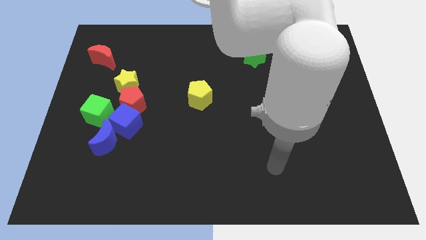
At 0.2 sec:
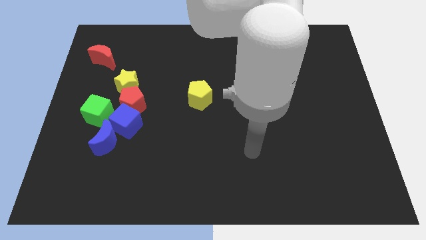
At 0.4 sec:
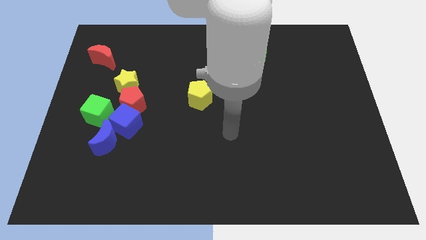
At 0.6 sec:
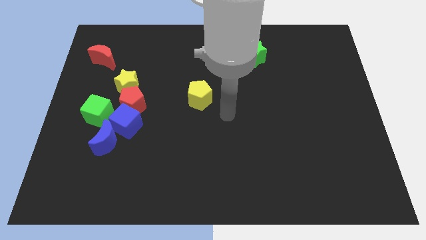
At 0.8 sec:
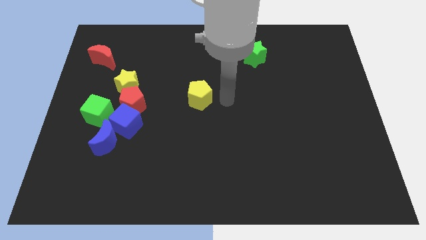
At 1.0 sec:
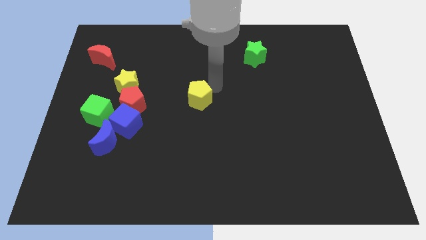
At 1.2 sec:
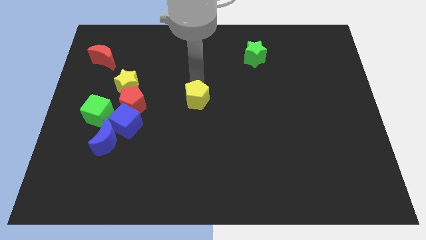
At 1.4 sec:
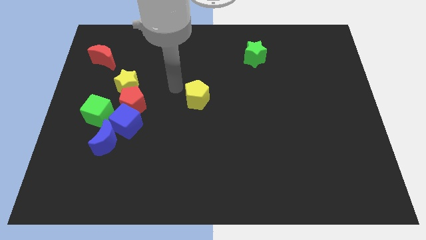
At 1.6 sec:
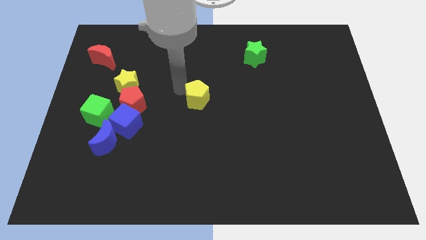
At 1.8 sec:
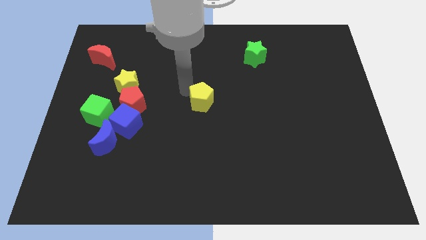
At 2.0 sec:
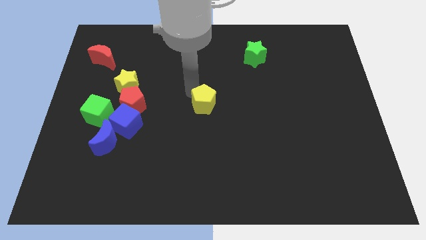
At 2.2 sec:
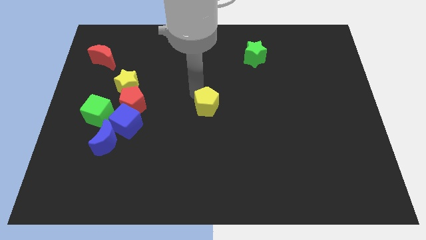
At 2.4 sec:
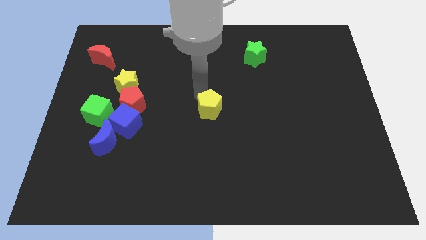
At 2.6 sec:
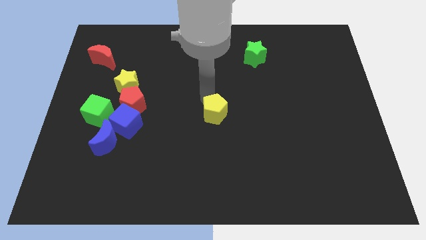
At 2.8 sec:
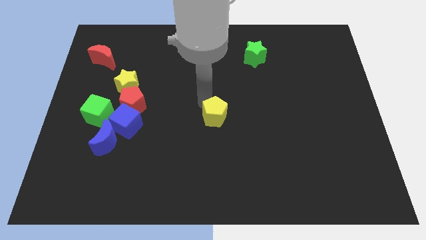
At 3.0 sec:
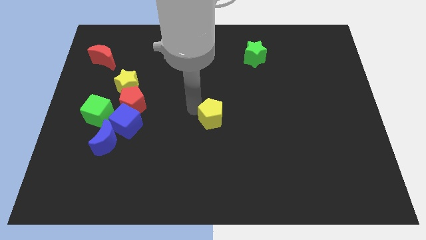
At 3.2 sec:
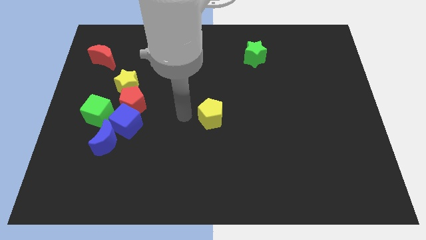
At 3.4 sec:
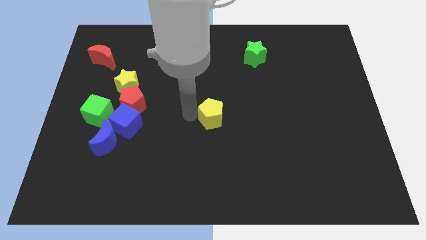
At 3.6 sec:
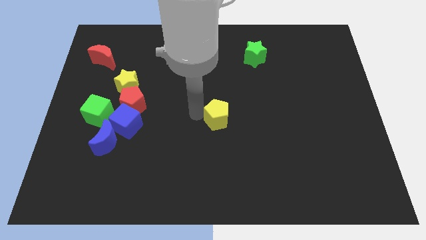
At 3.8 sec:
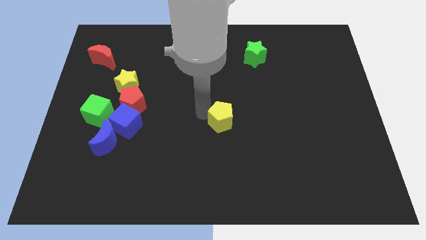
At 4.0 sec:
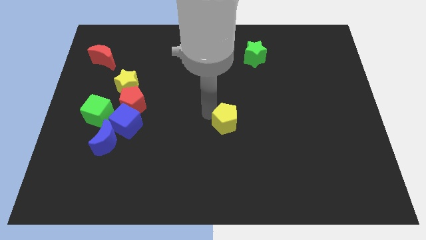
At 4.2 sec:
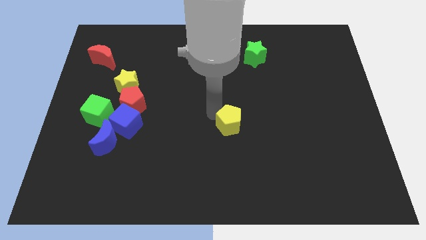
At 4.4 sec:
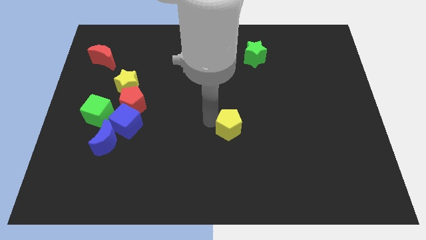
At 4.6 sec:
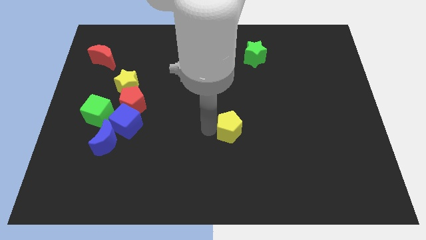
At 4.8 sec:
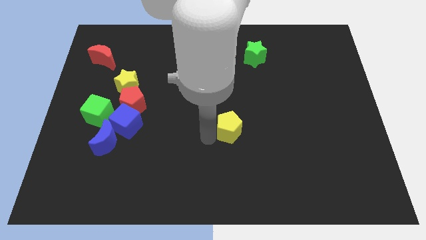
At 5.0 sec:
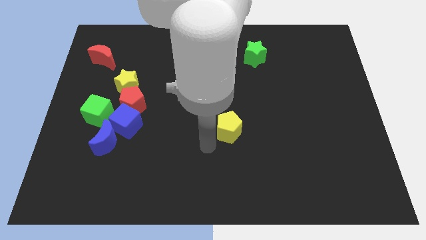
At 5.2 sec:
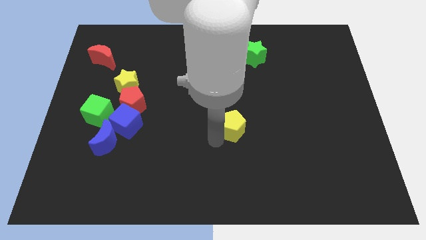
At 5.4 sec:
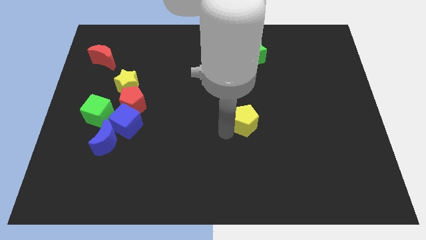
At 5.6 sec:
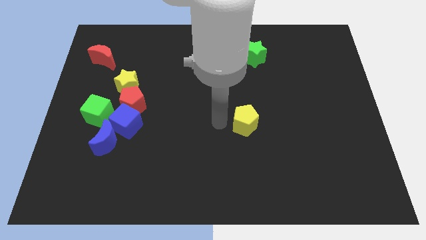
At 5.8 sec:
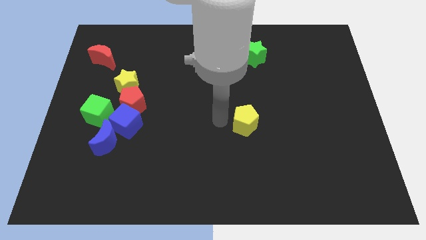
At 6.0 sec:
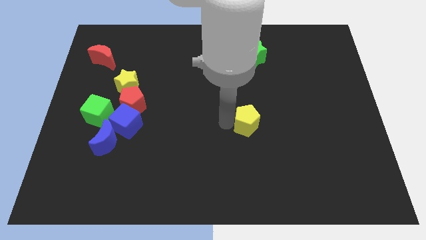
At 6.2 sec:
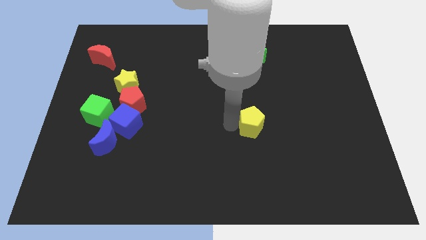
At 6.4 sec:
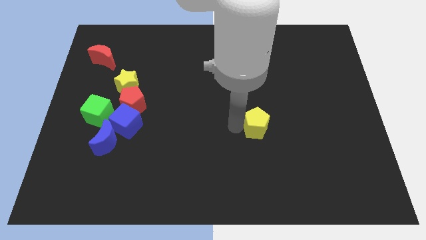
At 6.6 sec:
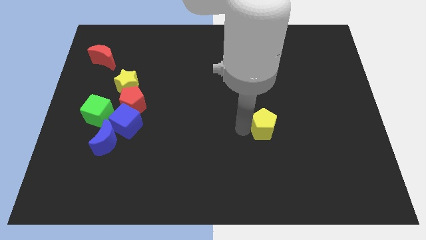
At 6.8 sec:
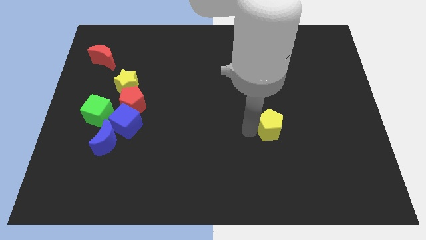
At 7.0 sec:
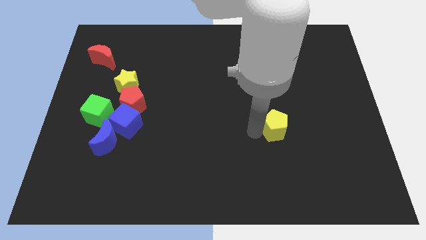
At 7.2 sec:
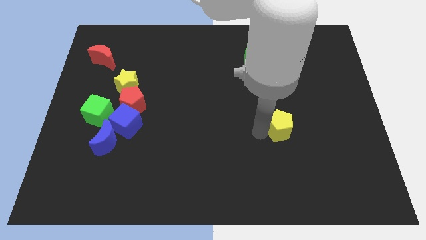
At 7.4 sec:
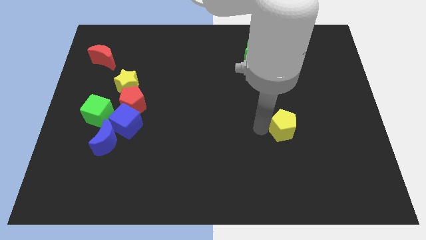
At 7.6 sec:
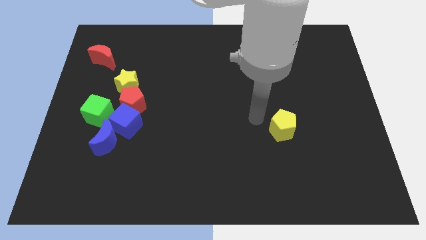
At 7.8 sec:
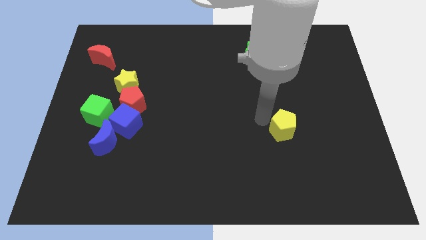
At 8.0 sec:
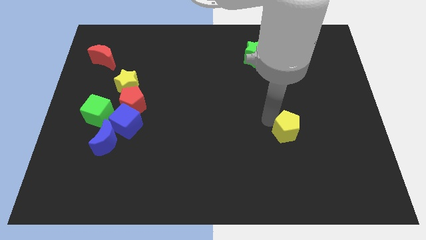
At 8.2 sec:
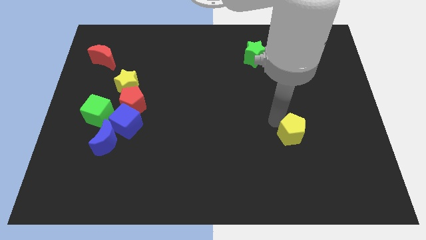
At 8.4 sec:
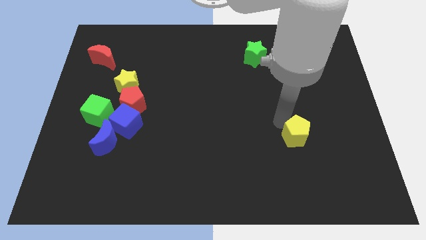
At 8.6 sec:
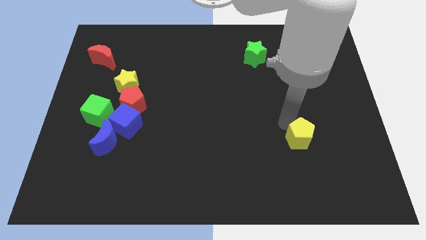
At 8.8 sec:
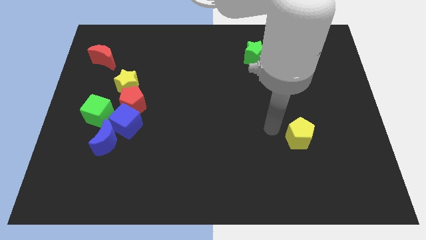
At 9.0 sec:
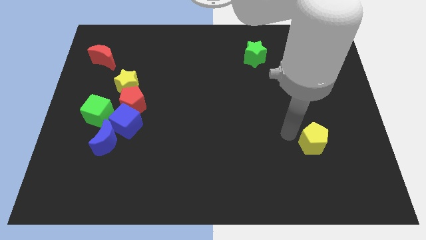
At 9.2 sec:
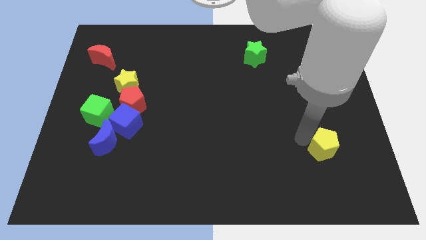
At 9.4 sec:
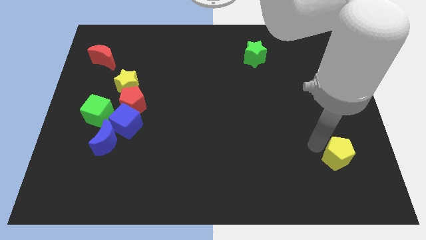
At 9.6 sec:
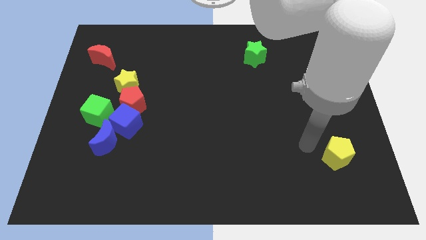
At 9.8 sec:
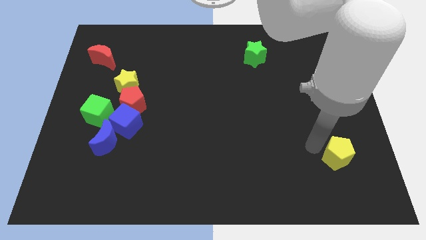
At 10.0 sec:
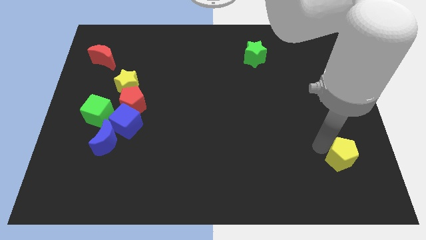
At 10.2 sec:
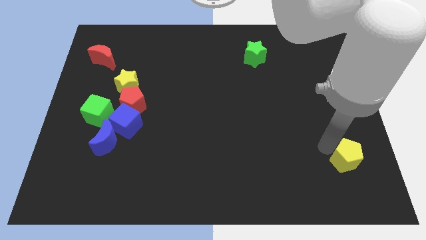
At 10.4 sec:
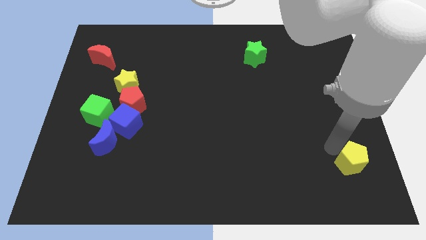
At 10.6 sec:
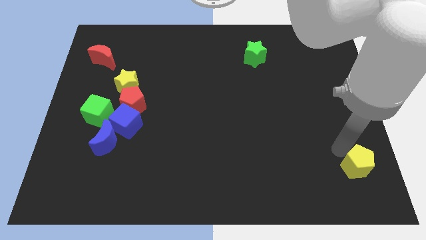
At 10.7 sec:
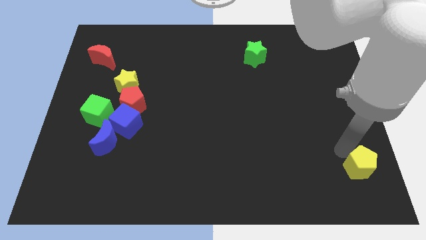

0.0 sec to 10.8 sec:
push the yellow pentagon to the bottom right corner

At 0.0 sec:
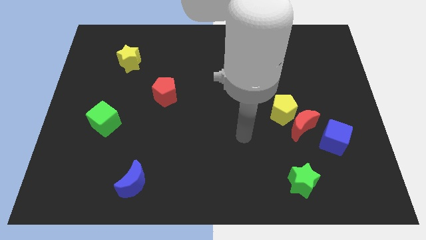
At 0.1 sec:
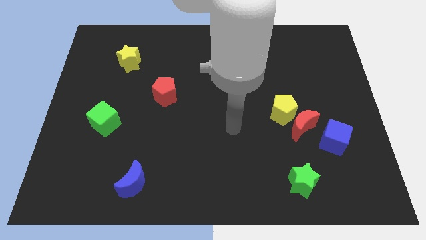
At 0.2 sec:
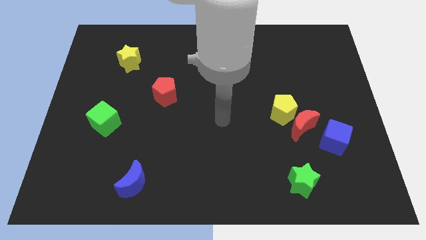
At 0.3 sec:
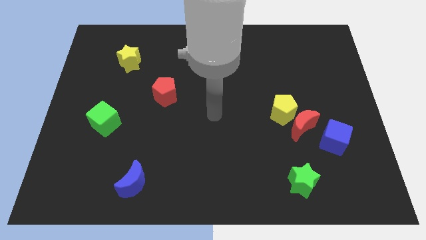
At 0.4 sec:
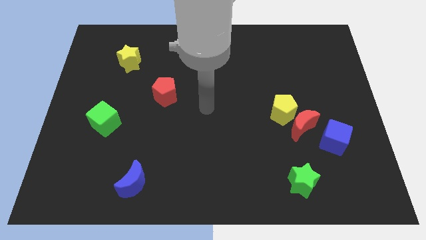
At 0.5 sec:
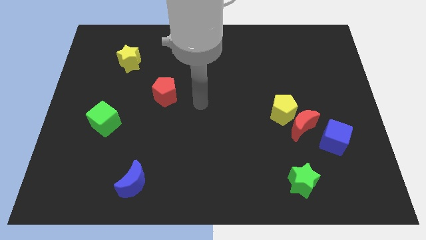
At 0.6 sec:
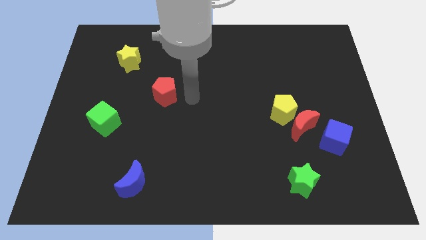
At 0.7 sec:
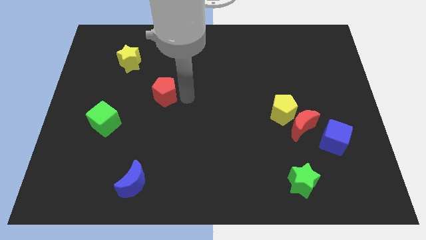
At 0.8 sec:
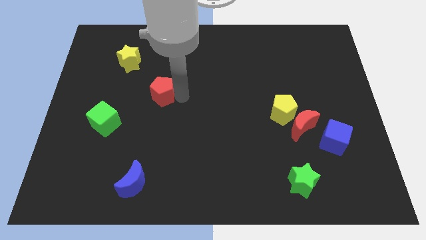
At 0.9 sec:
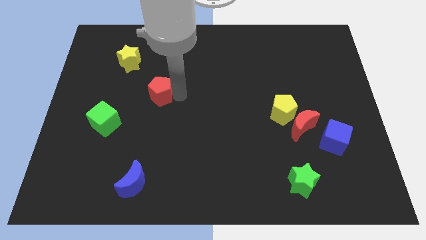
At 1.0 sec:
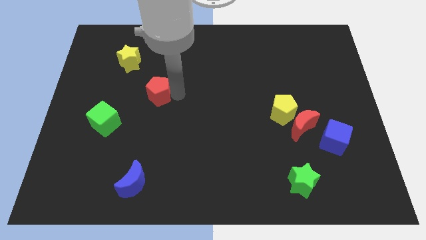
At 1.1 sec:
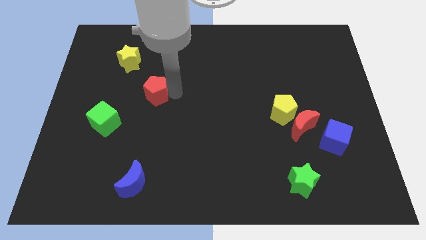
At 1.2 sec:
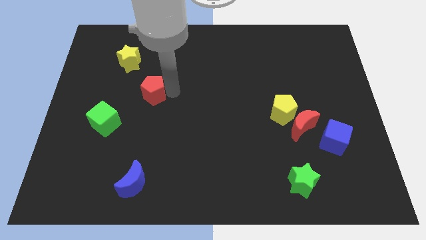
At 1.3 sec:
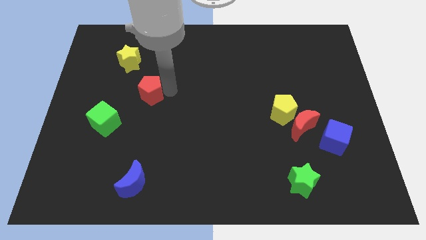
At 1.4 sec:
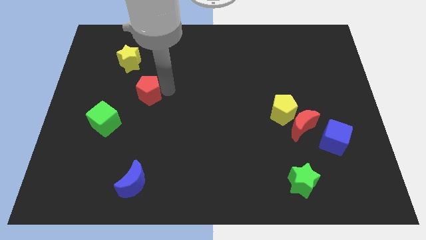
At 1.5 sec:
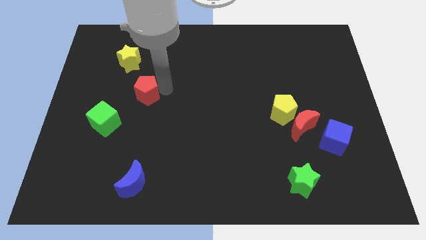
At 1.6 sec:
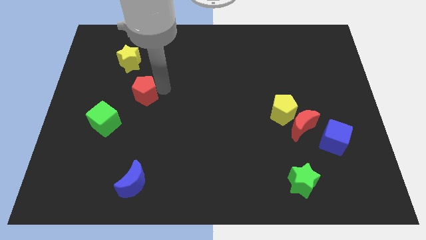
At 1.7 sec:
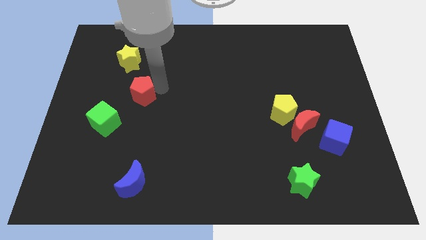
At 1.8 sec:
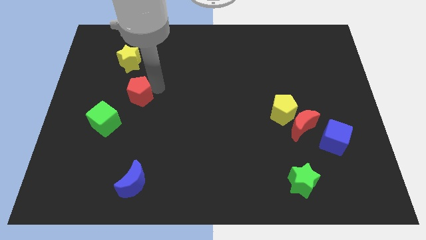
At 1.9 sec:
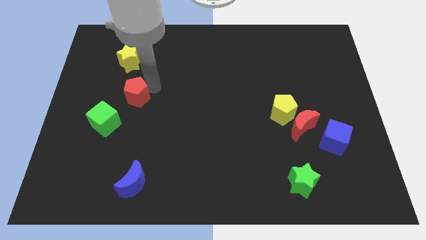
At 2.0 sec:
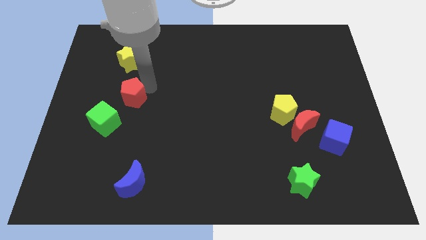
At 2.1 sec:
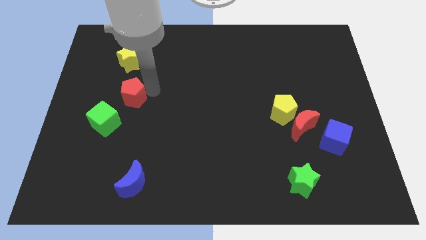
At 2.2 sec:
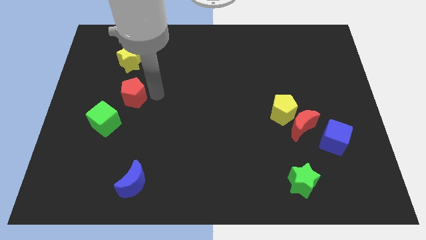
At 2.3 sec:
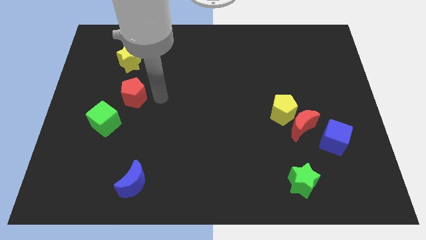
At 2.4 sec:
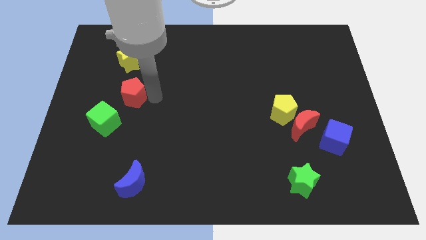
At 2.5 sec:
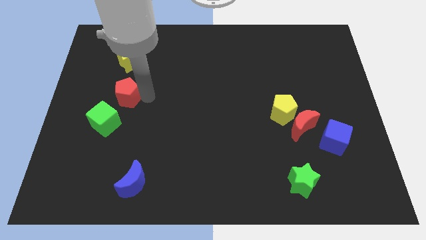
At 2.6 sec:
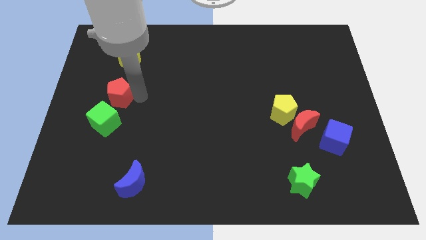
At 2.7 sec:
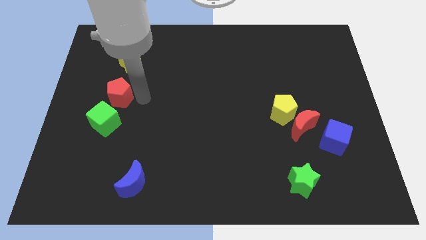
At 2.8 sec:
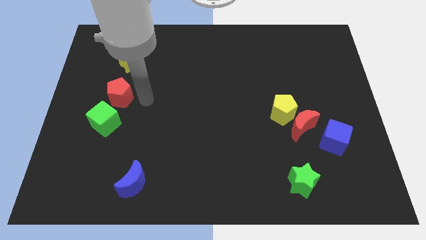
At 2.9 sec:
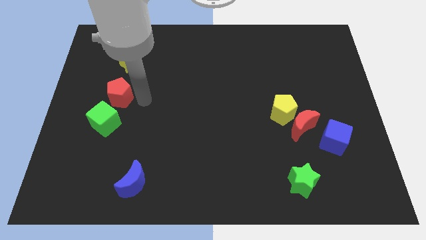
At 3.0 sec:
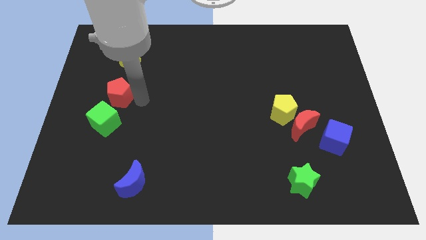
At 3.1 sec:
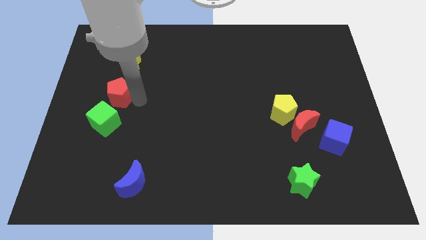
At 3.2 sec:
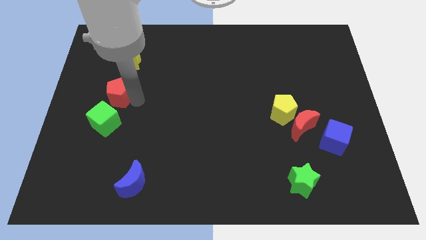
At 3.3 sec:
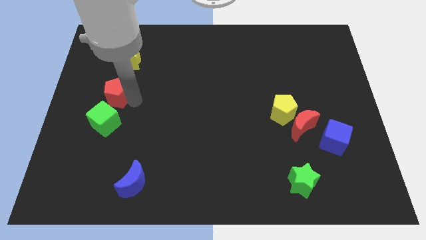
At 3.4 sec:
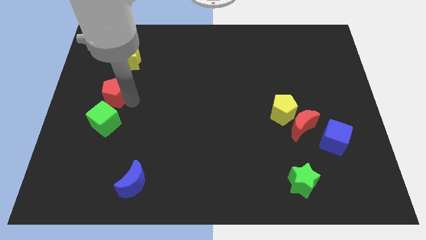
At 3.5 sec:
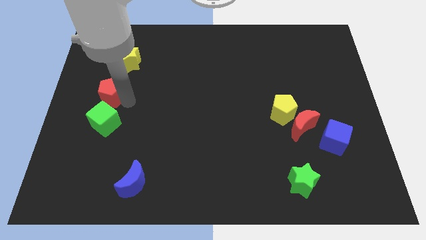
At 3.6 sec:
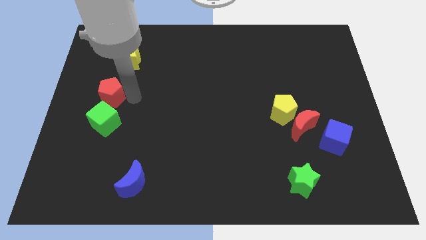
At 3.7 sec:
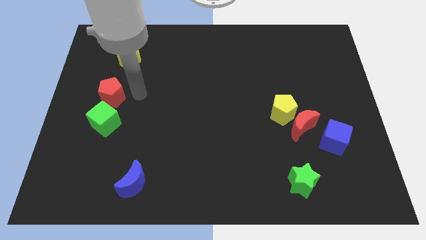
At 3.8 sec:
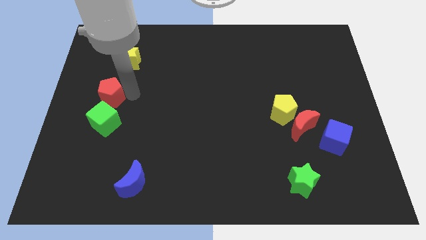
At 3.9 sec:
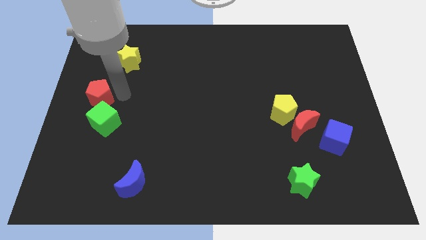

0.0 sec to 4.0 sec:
push the red pentagon to the center left
